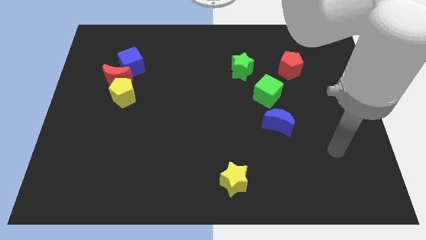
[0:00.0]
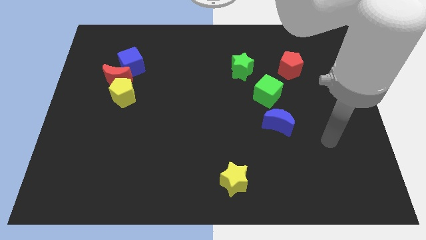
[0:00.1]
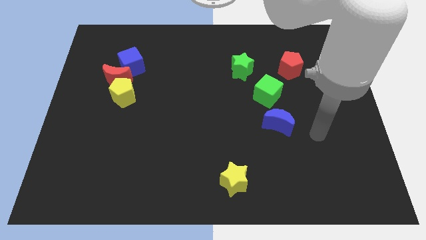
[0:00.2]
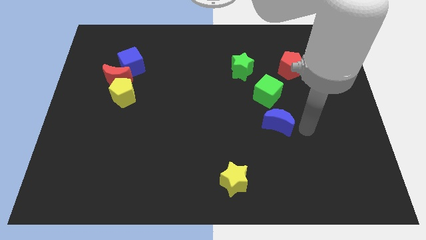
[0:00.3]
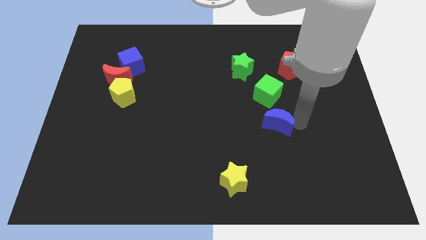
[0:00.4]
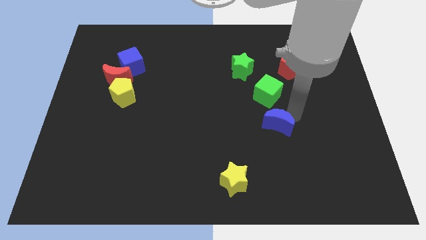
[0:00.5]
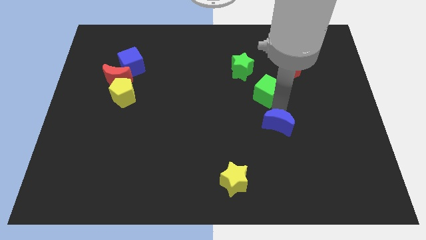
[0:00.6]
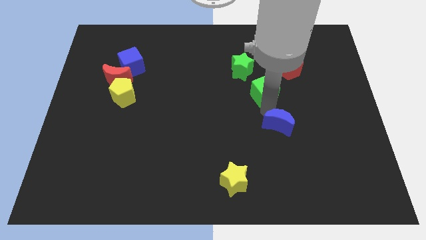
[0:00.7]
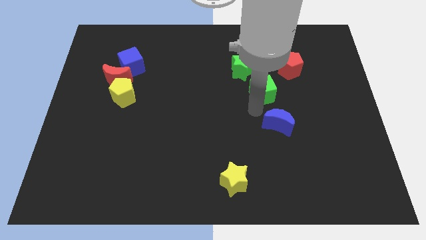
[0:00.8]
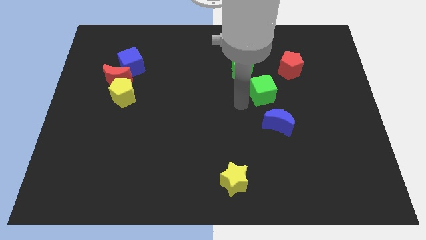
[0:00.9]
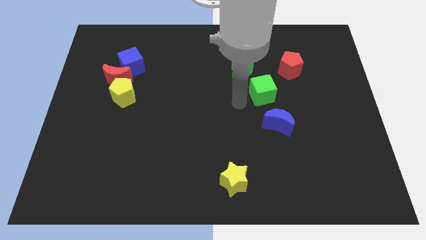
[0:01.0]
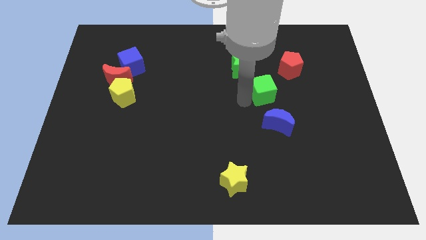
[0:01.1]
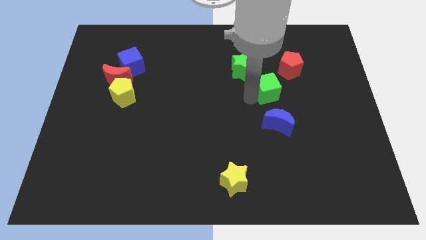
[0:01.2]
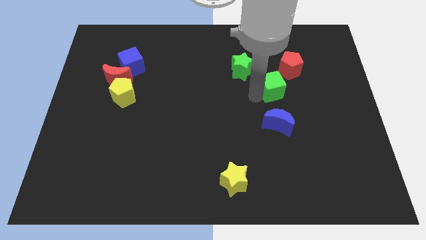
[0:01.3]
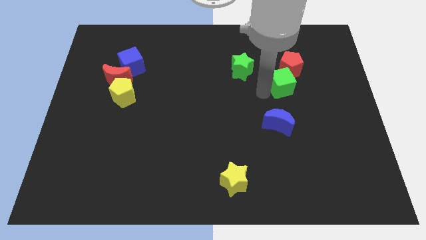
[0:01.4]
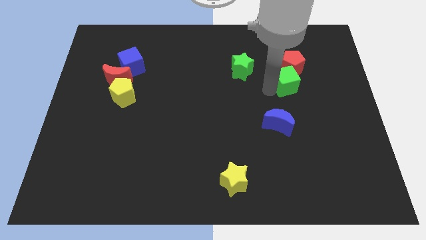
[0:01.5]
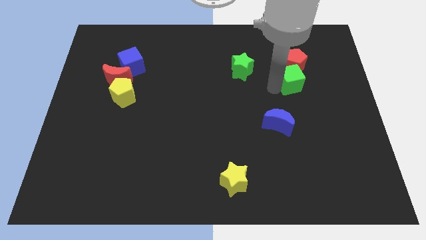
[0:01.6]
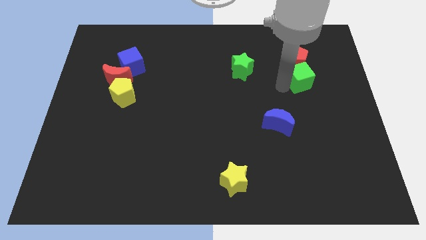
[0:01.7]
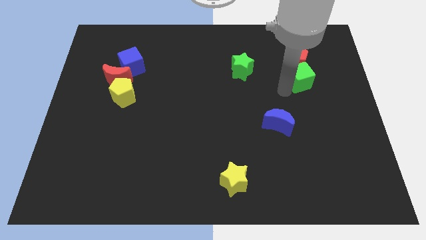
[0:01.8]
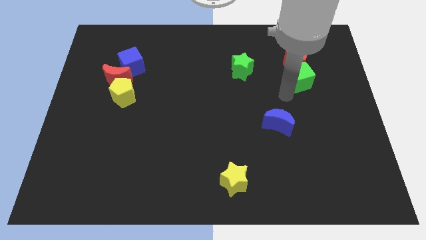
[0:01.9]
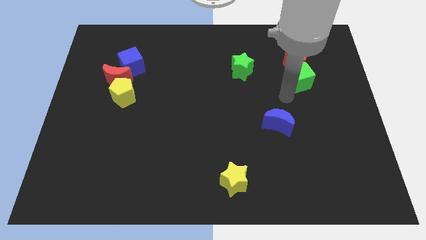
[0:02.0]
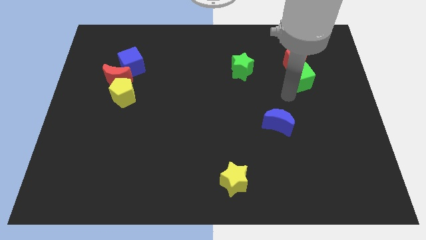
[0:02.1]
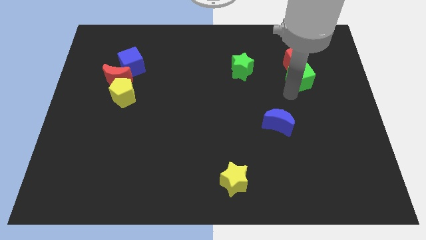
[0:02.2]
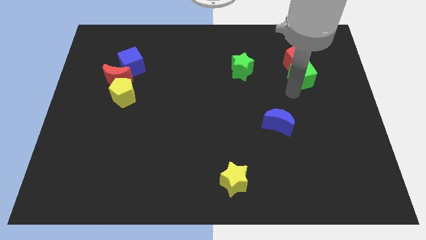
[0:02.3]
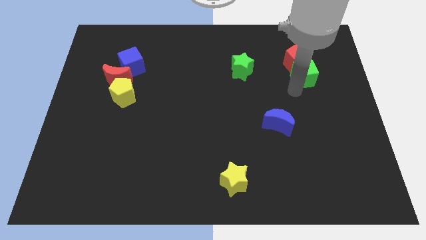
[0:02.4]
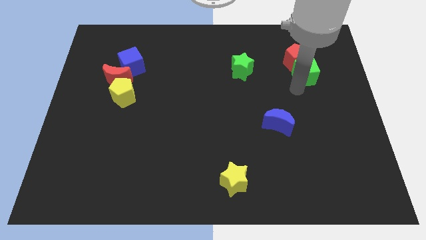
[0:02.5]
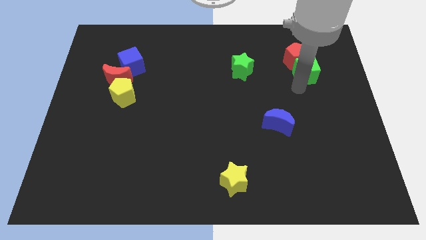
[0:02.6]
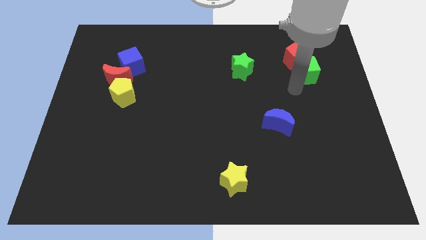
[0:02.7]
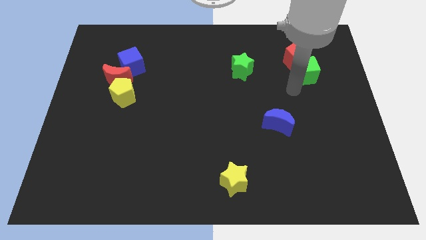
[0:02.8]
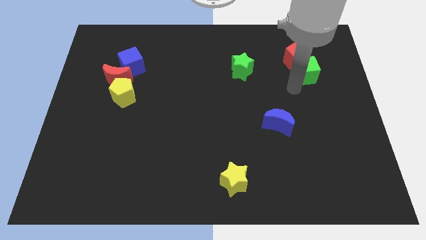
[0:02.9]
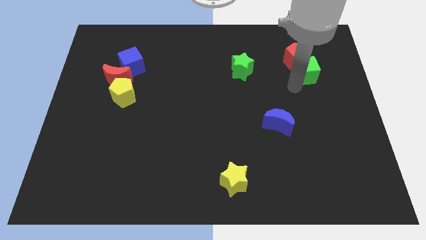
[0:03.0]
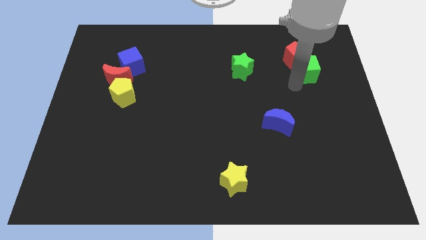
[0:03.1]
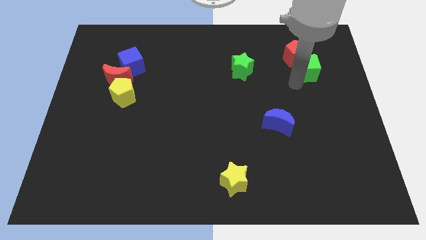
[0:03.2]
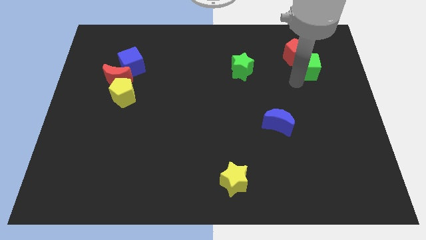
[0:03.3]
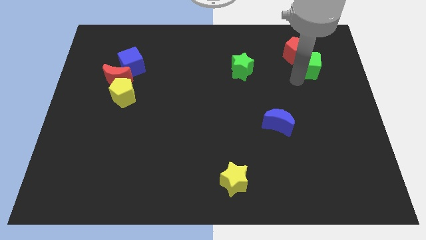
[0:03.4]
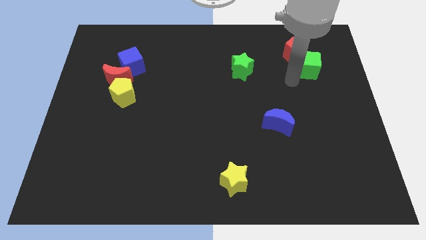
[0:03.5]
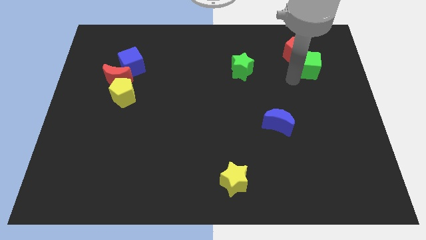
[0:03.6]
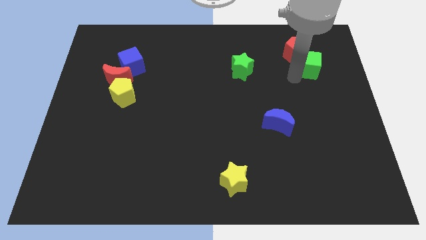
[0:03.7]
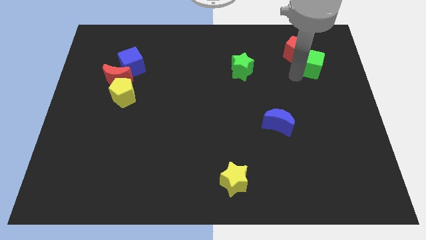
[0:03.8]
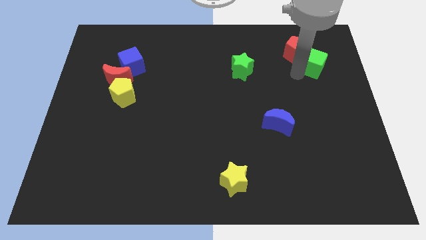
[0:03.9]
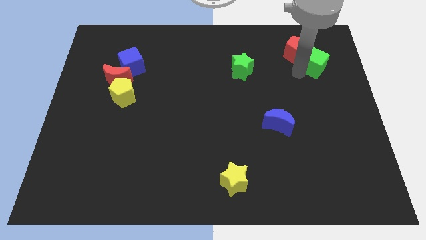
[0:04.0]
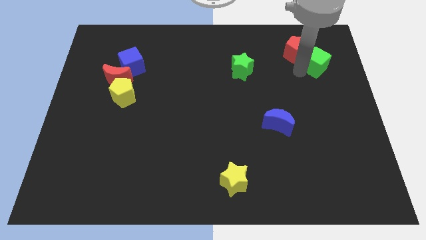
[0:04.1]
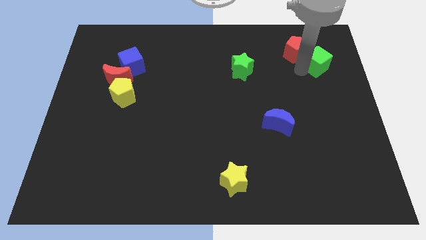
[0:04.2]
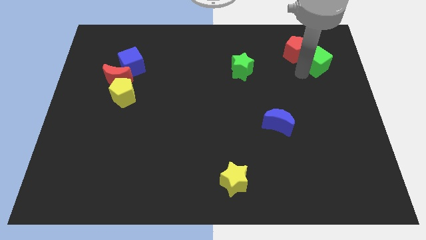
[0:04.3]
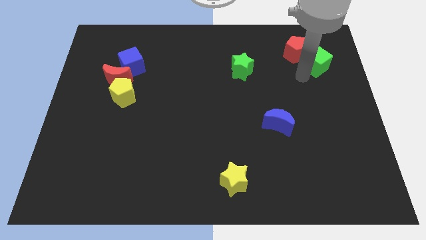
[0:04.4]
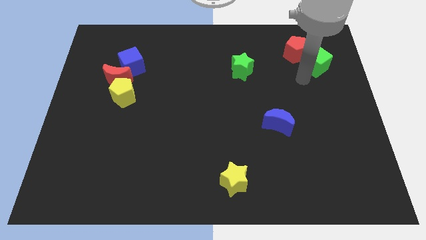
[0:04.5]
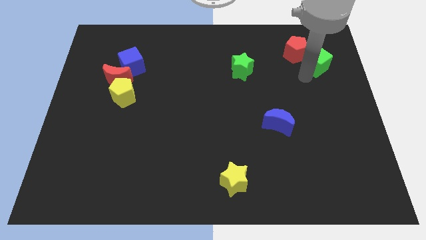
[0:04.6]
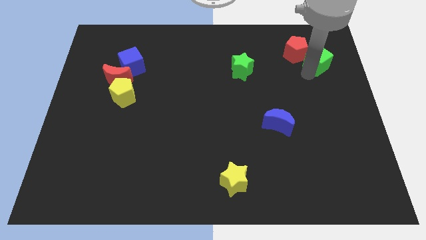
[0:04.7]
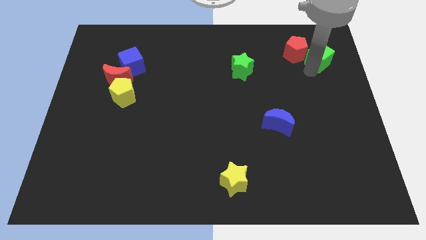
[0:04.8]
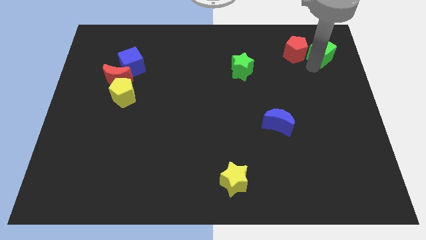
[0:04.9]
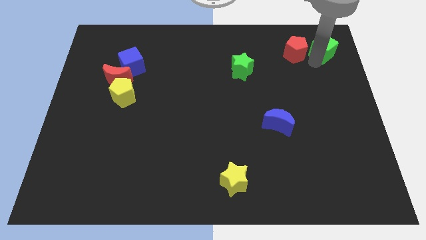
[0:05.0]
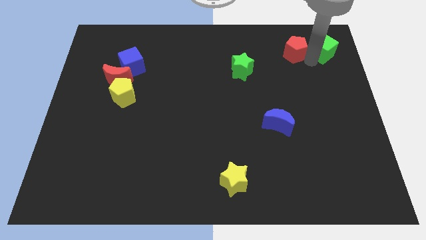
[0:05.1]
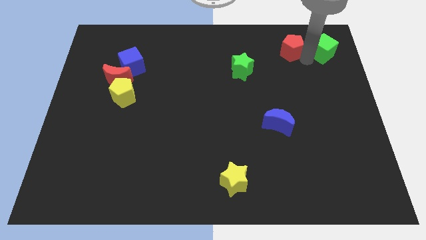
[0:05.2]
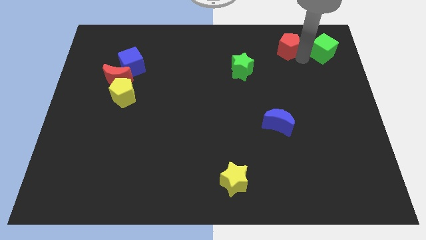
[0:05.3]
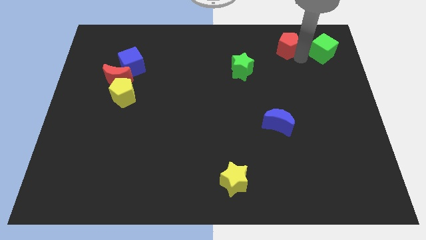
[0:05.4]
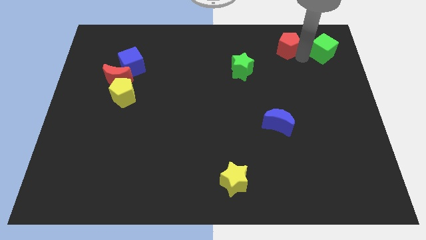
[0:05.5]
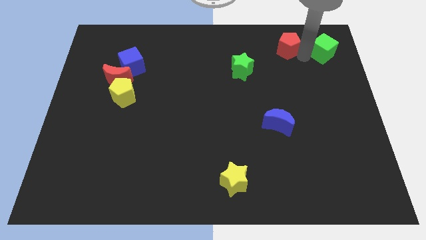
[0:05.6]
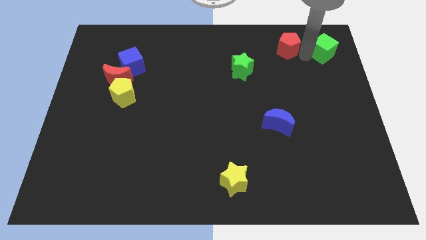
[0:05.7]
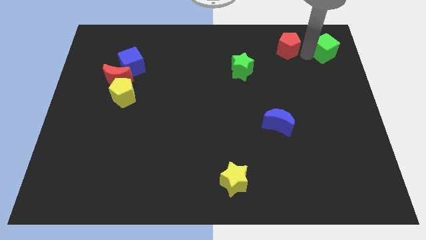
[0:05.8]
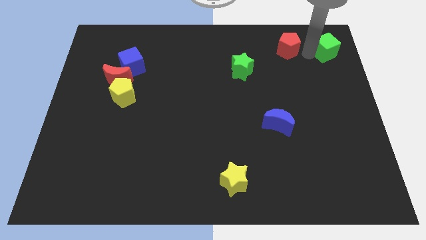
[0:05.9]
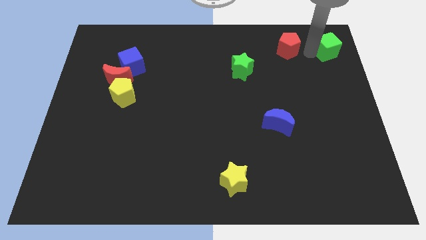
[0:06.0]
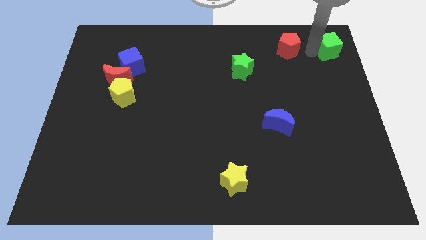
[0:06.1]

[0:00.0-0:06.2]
slide the green cube to the top right
